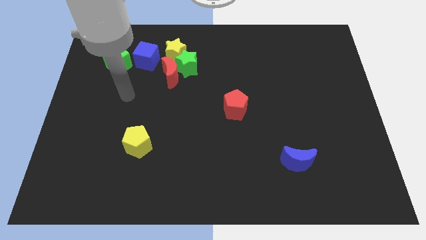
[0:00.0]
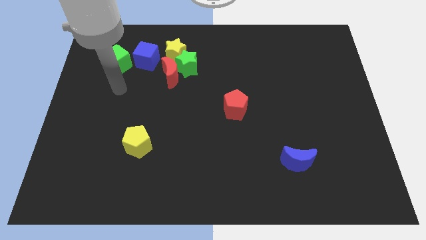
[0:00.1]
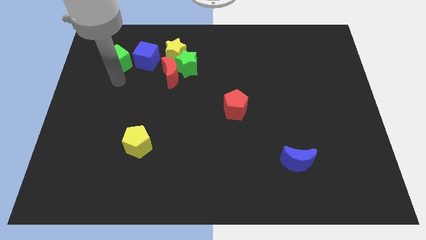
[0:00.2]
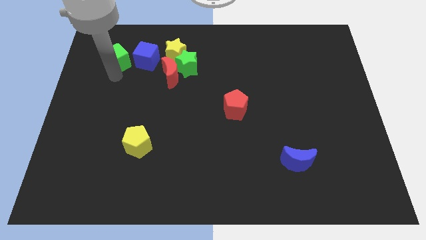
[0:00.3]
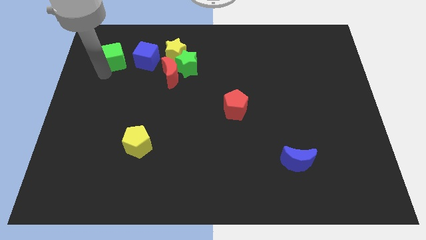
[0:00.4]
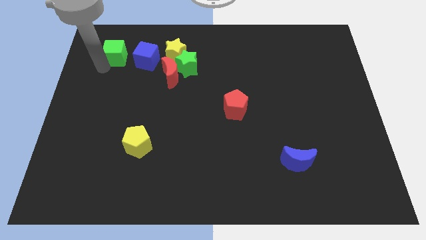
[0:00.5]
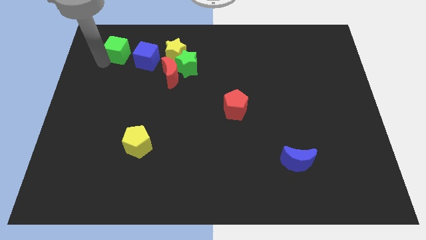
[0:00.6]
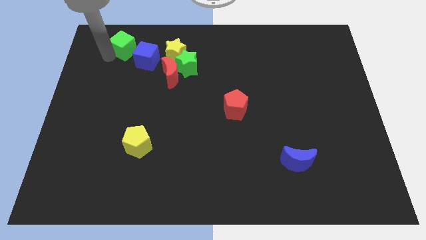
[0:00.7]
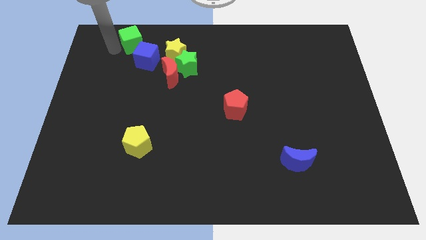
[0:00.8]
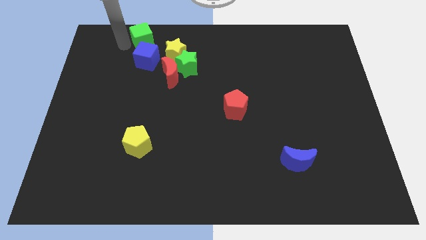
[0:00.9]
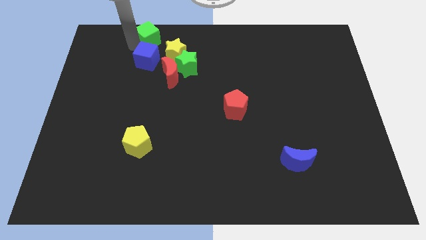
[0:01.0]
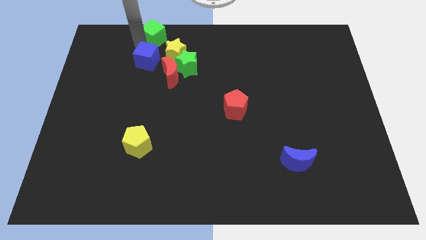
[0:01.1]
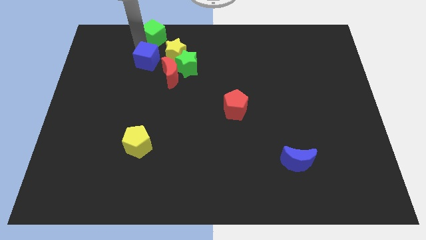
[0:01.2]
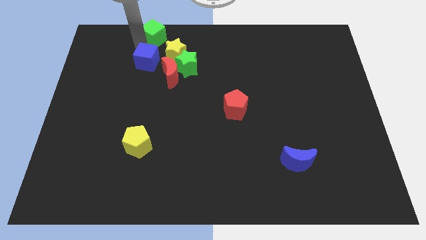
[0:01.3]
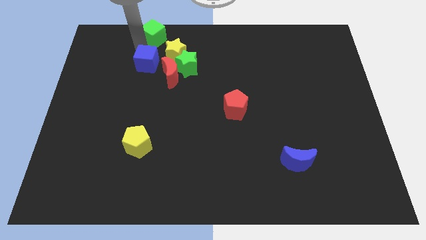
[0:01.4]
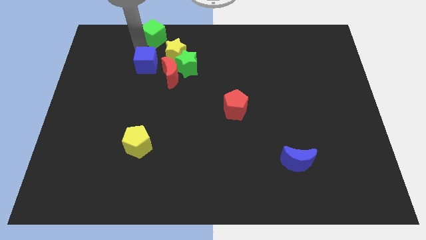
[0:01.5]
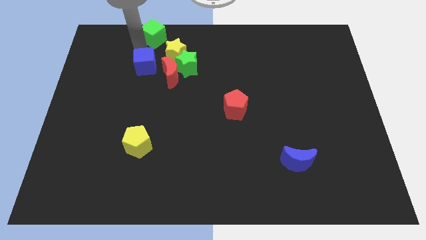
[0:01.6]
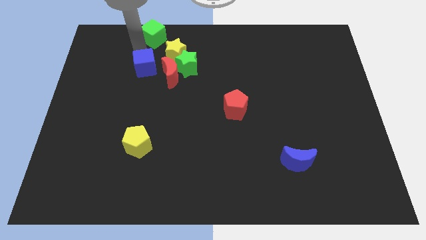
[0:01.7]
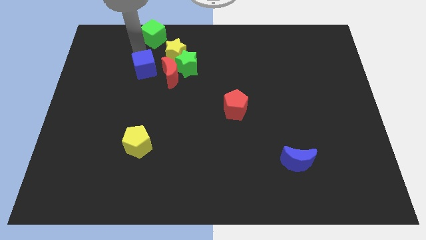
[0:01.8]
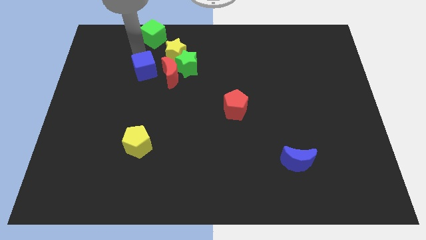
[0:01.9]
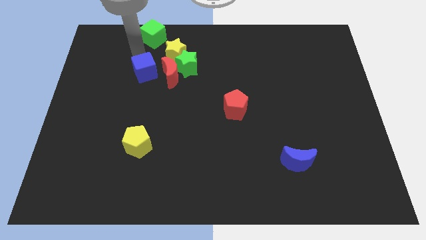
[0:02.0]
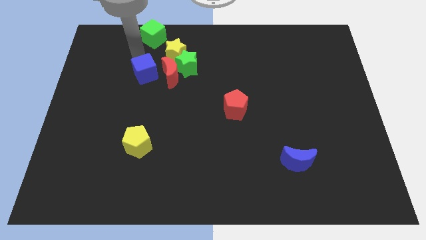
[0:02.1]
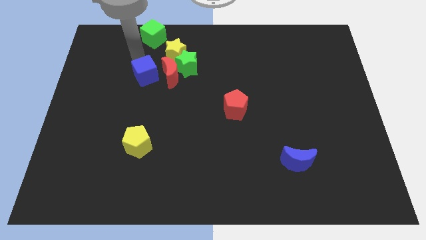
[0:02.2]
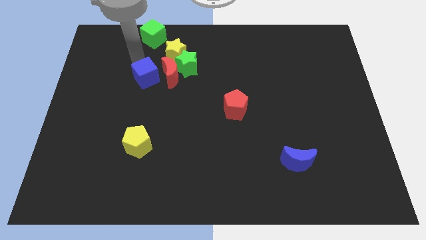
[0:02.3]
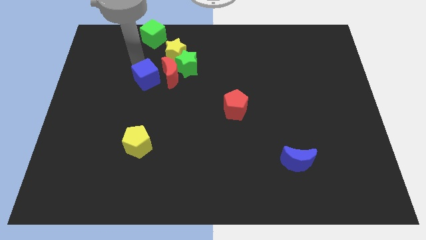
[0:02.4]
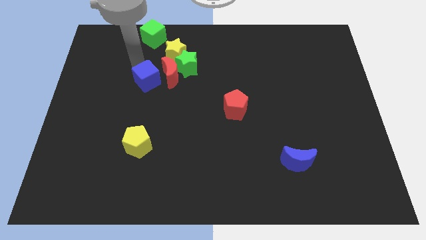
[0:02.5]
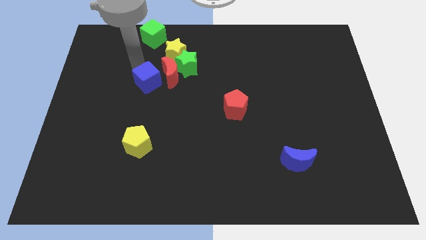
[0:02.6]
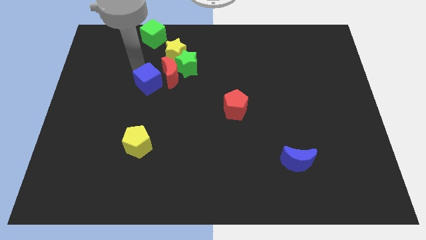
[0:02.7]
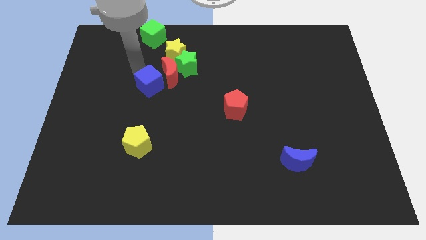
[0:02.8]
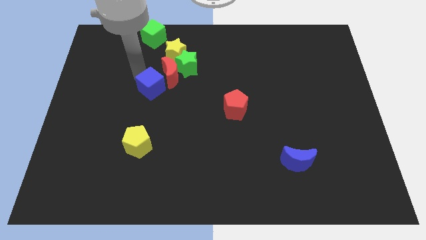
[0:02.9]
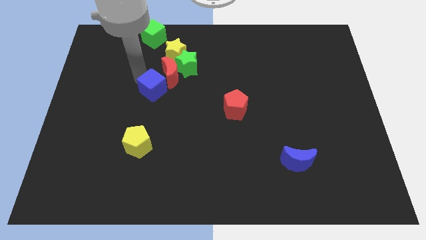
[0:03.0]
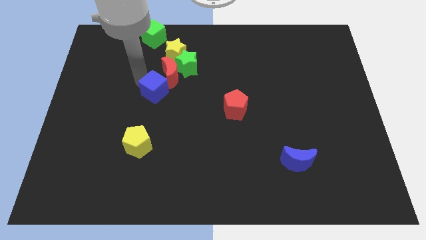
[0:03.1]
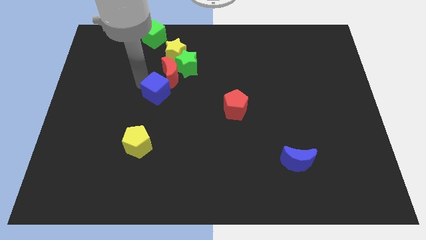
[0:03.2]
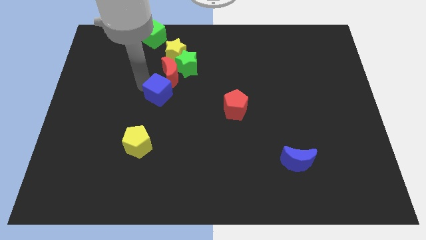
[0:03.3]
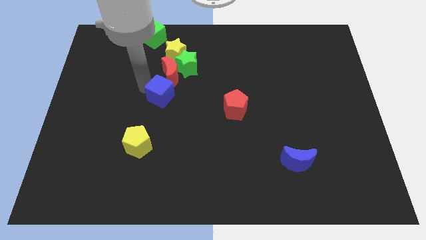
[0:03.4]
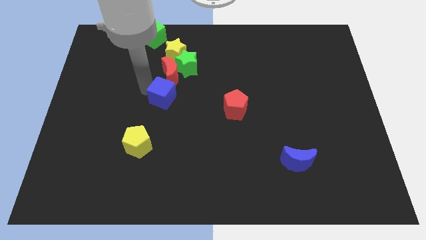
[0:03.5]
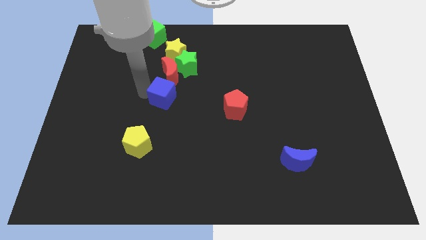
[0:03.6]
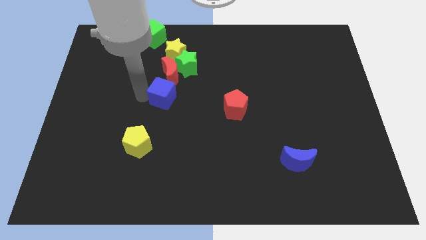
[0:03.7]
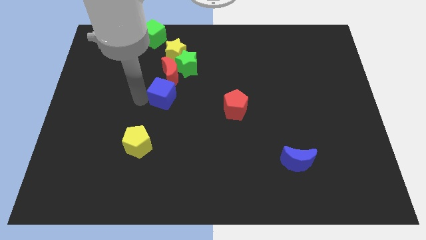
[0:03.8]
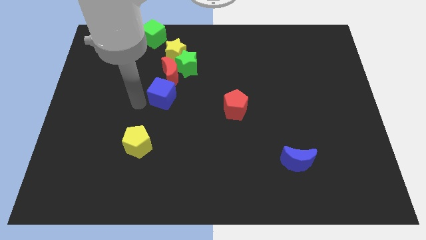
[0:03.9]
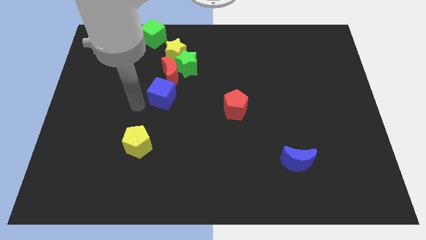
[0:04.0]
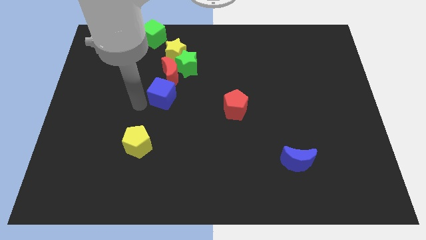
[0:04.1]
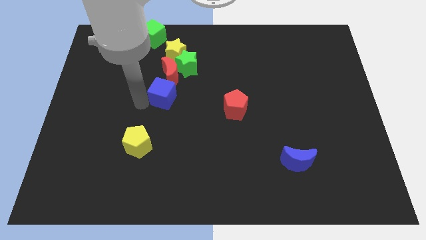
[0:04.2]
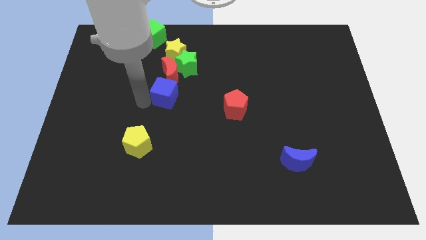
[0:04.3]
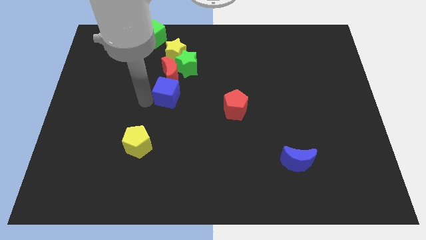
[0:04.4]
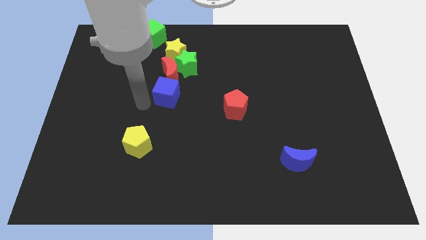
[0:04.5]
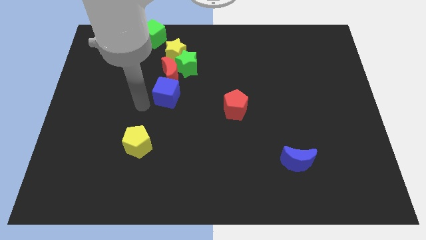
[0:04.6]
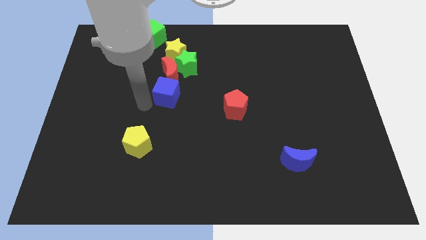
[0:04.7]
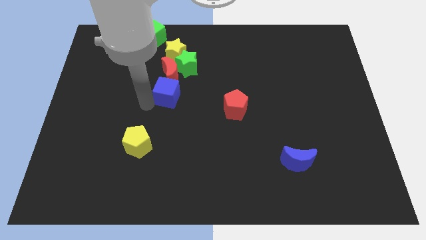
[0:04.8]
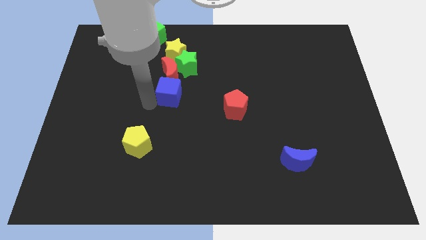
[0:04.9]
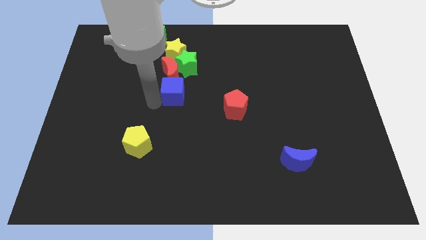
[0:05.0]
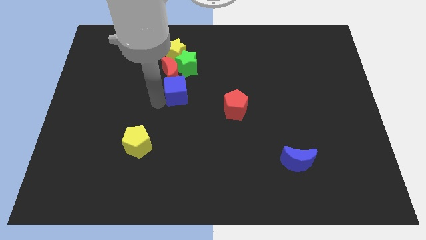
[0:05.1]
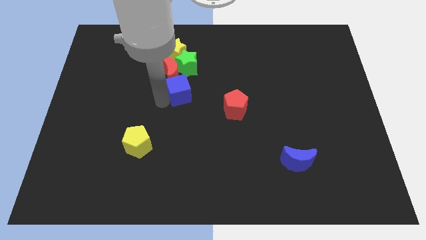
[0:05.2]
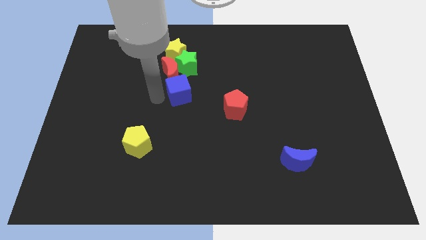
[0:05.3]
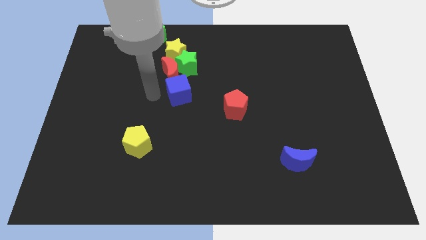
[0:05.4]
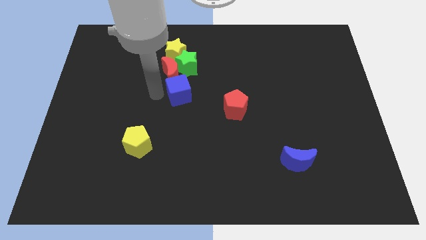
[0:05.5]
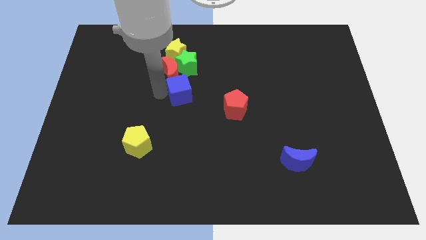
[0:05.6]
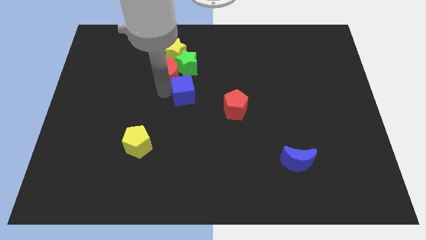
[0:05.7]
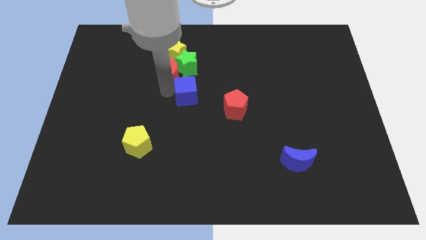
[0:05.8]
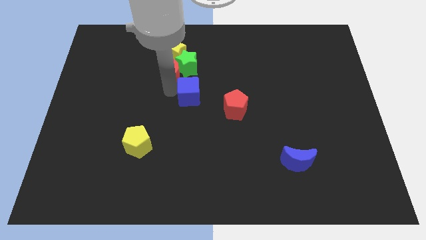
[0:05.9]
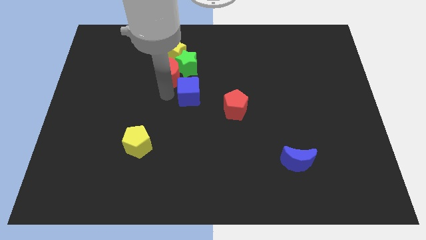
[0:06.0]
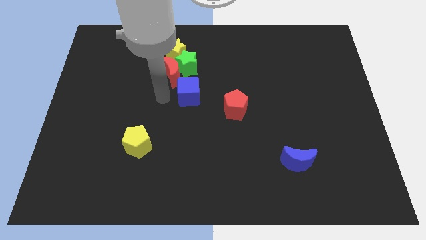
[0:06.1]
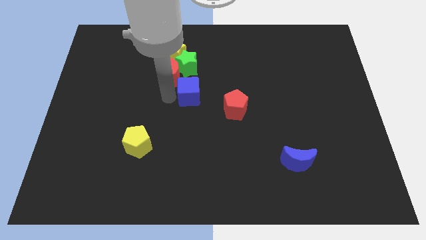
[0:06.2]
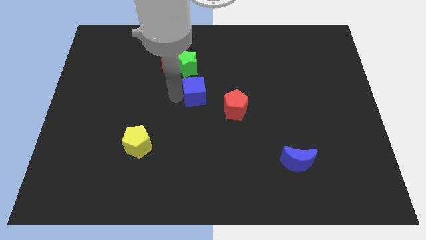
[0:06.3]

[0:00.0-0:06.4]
move the blue cube to the top left side of the red pentagon

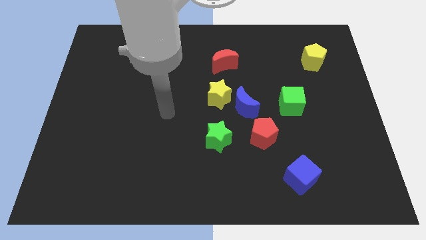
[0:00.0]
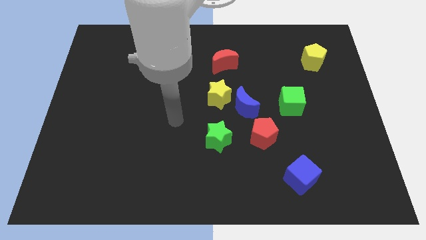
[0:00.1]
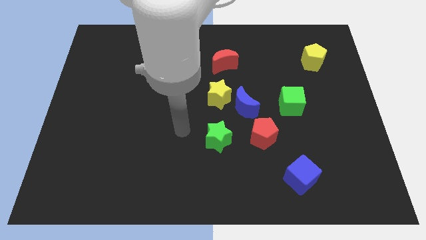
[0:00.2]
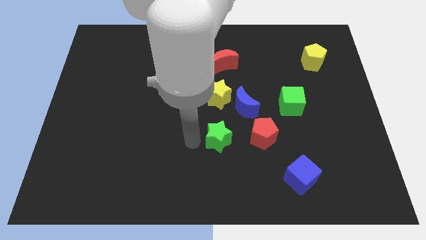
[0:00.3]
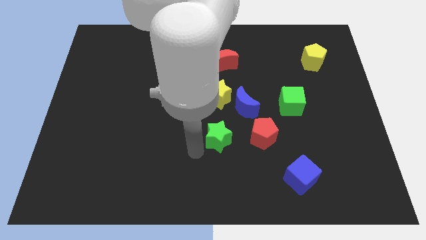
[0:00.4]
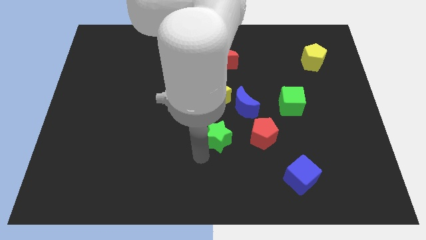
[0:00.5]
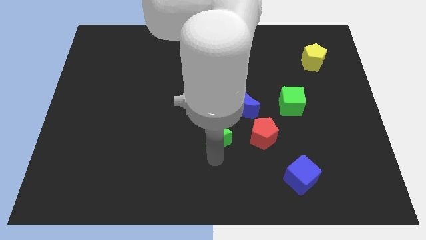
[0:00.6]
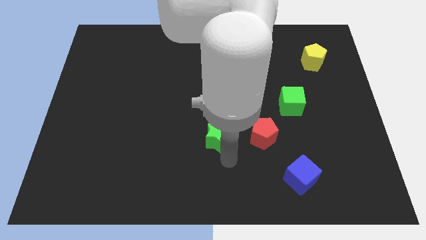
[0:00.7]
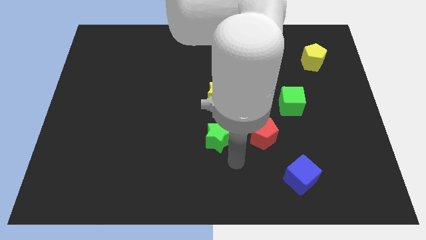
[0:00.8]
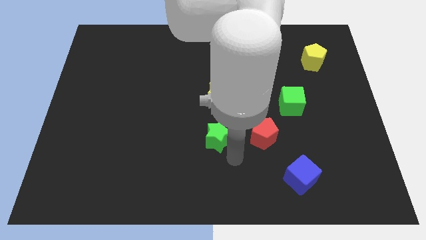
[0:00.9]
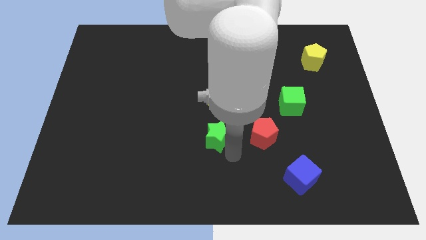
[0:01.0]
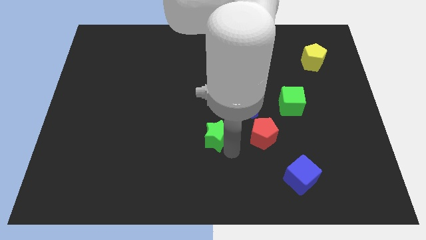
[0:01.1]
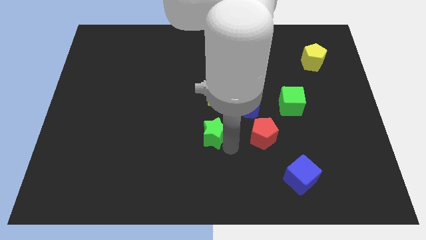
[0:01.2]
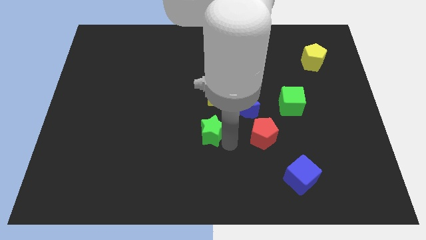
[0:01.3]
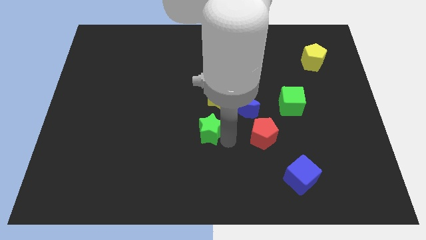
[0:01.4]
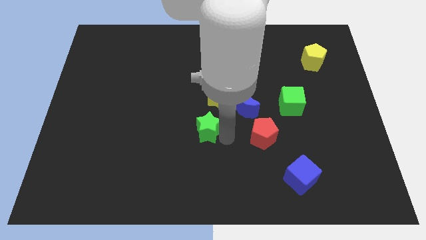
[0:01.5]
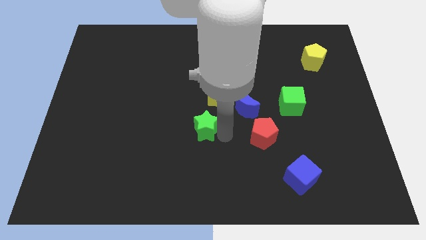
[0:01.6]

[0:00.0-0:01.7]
put the green star diagonally down and to the left of the yellow star
